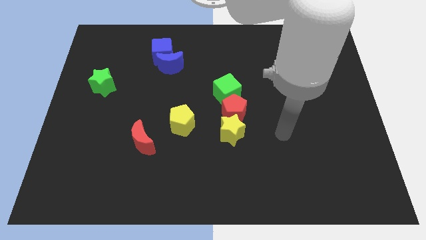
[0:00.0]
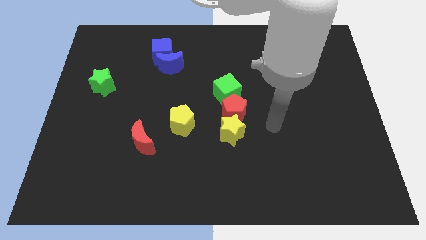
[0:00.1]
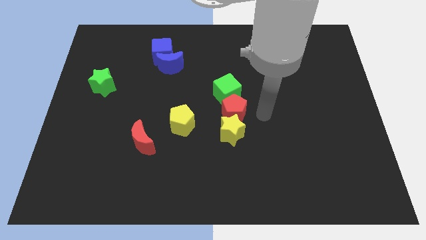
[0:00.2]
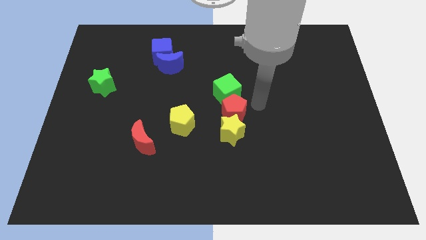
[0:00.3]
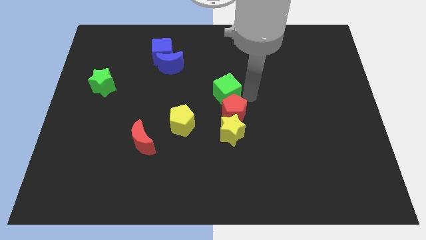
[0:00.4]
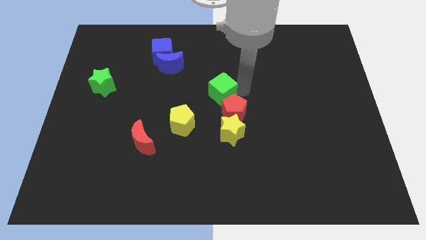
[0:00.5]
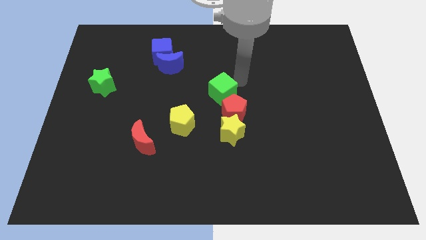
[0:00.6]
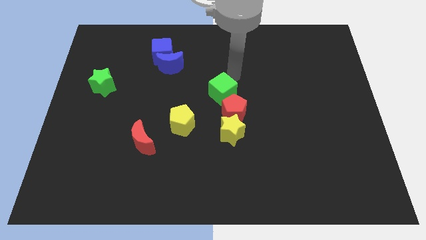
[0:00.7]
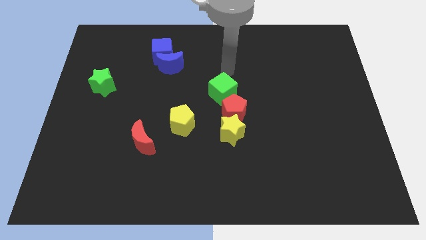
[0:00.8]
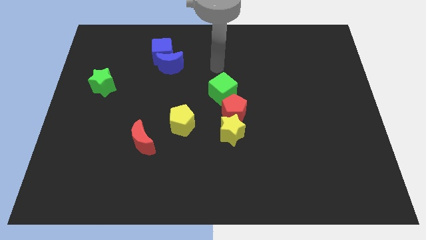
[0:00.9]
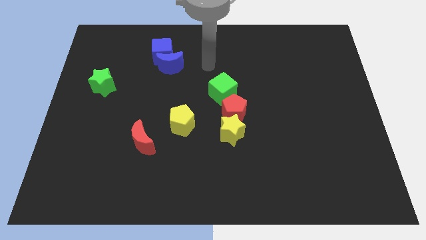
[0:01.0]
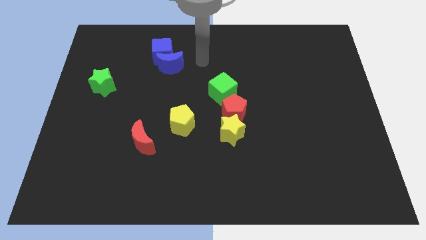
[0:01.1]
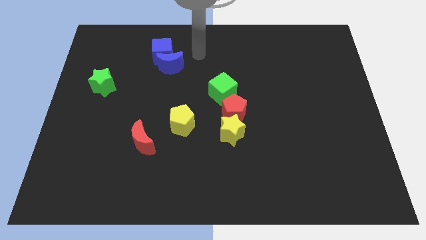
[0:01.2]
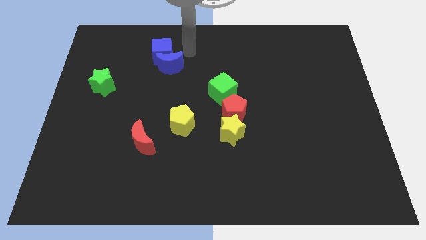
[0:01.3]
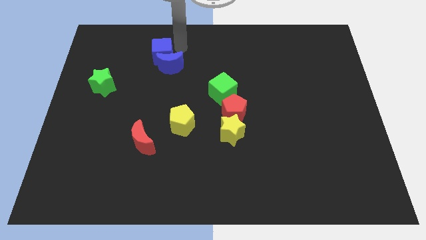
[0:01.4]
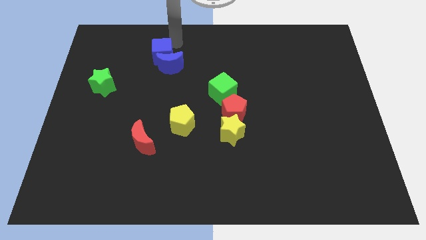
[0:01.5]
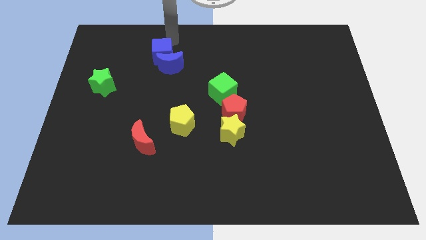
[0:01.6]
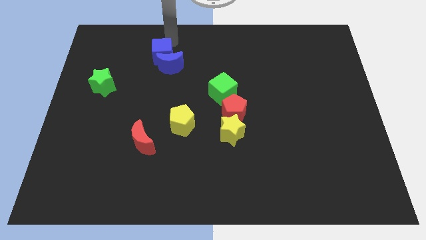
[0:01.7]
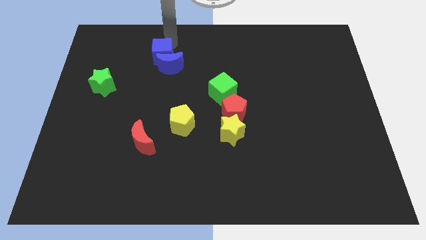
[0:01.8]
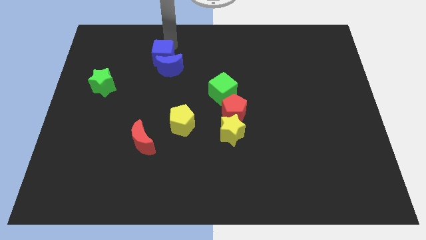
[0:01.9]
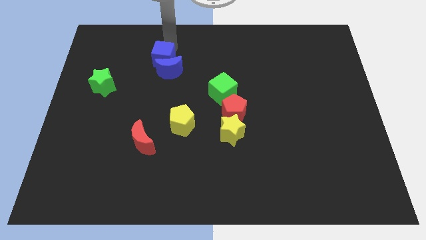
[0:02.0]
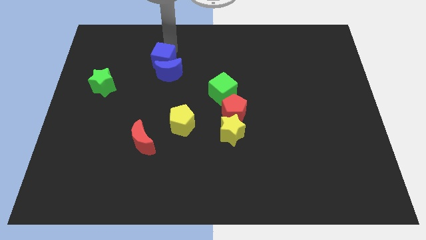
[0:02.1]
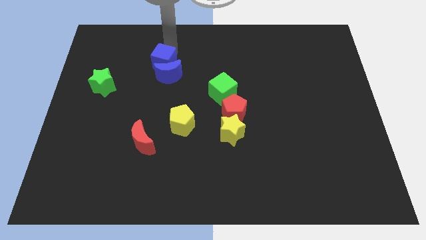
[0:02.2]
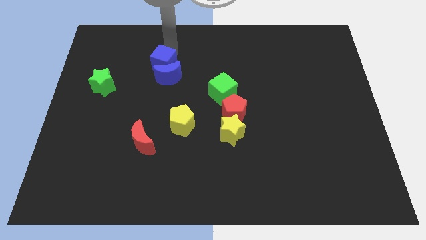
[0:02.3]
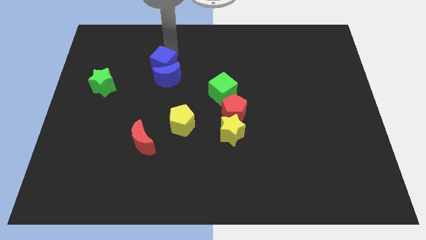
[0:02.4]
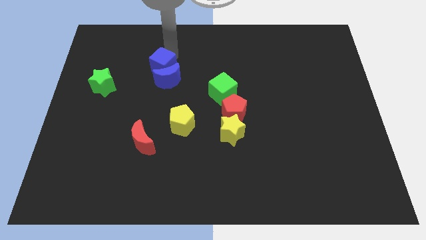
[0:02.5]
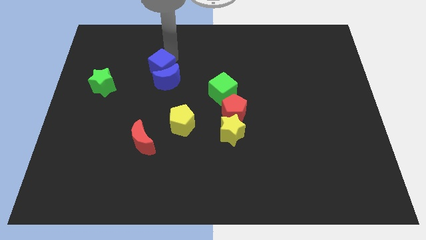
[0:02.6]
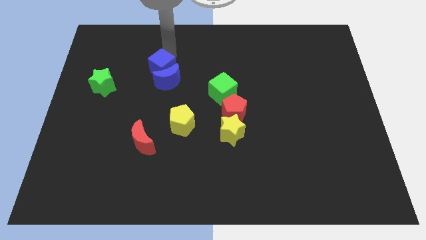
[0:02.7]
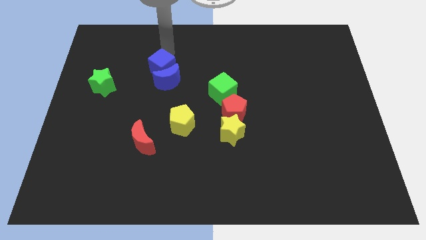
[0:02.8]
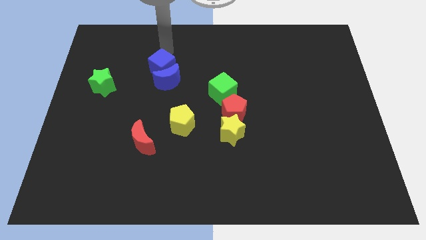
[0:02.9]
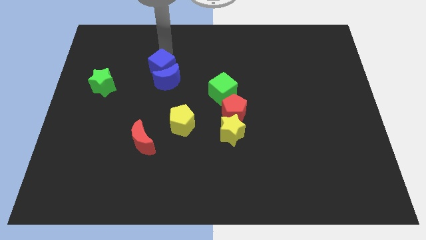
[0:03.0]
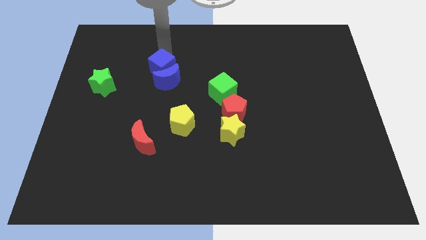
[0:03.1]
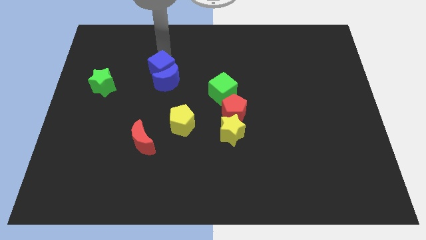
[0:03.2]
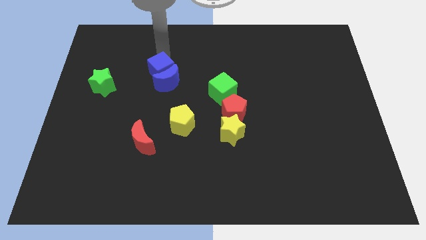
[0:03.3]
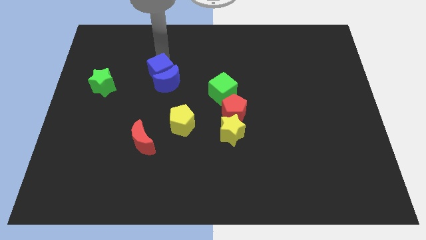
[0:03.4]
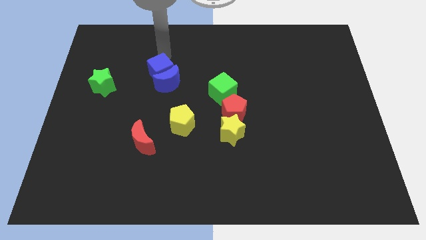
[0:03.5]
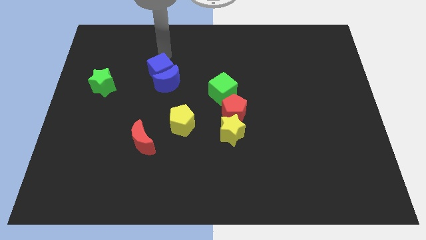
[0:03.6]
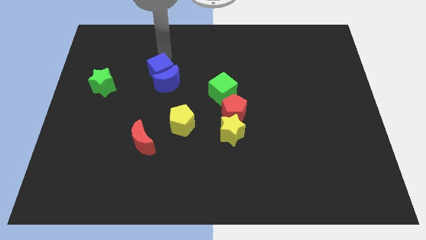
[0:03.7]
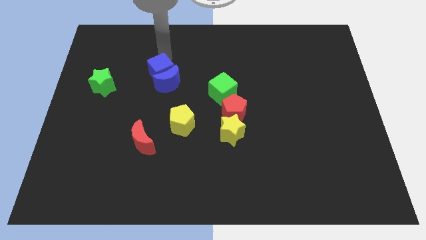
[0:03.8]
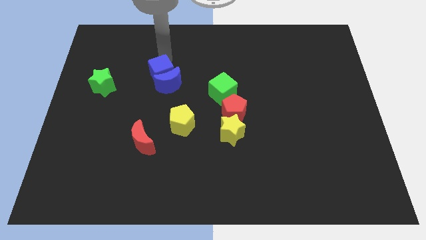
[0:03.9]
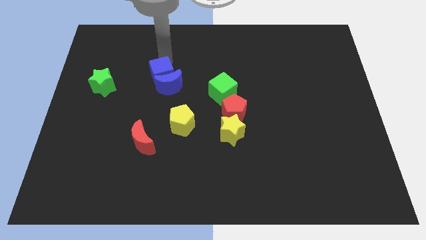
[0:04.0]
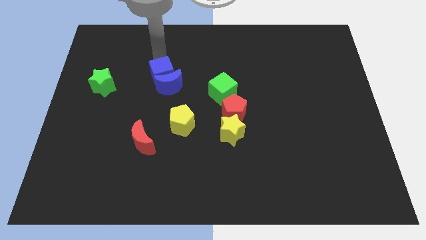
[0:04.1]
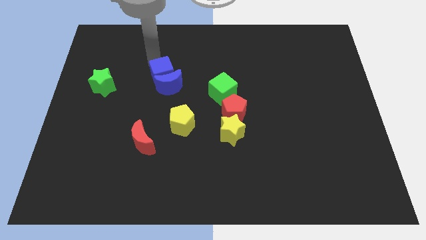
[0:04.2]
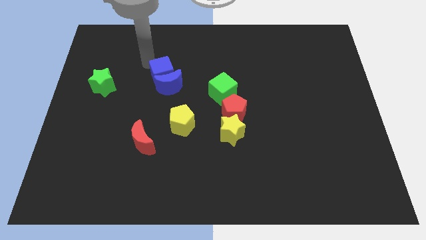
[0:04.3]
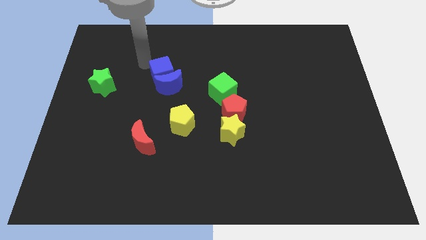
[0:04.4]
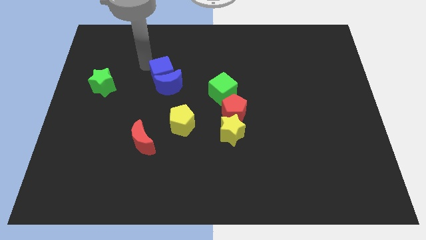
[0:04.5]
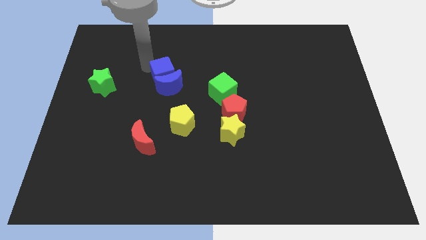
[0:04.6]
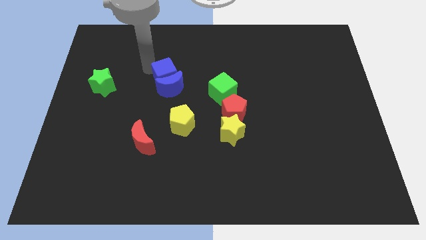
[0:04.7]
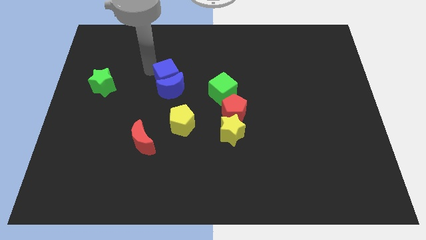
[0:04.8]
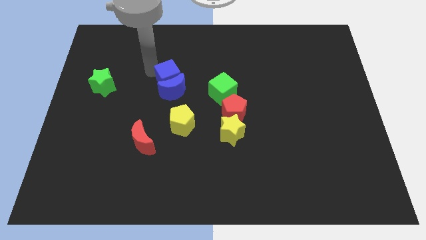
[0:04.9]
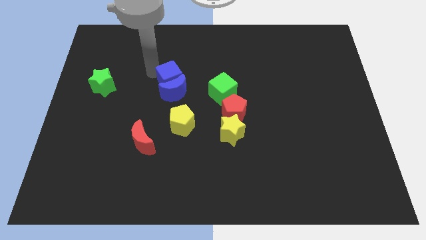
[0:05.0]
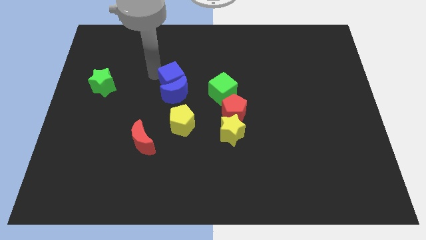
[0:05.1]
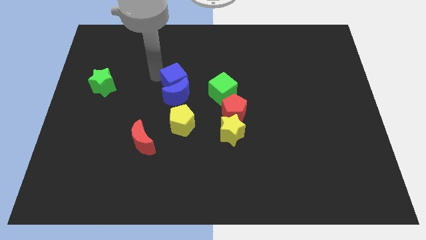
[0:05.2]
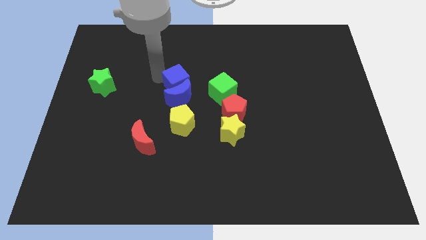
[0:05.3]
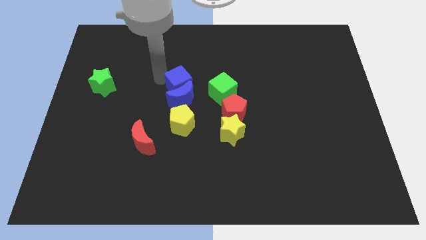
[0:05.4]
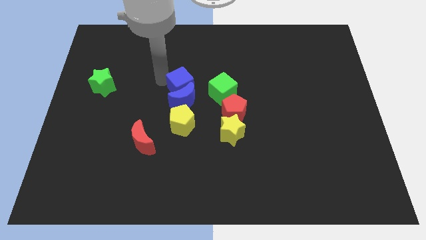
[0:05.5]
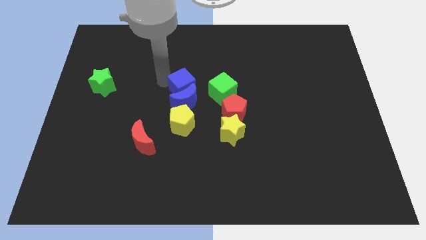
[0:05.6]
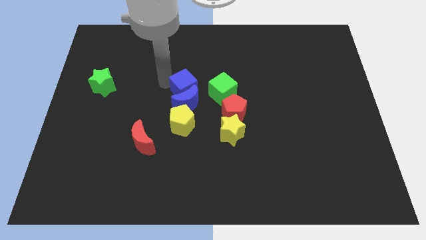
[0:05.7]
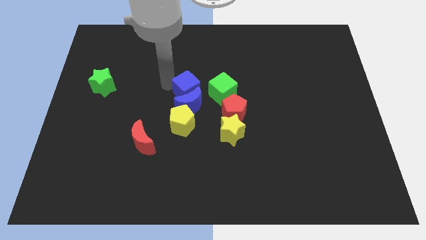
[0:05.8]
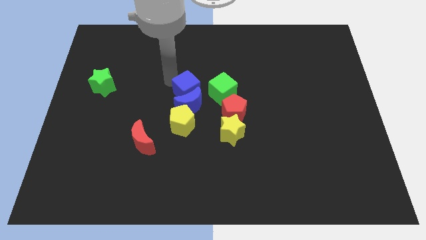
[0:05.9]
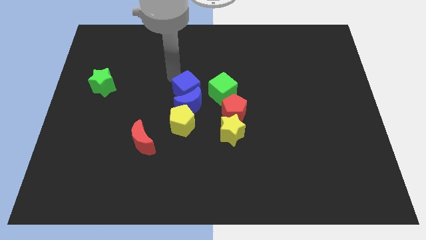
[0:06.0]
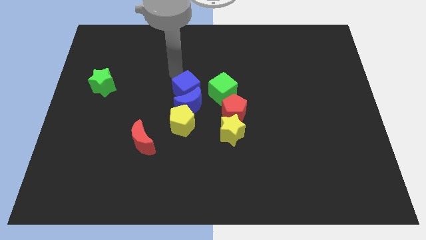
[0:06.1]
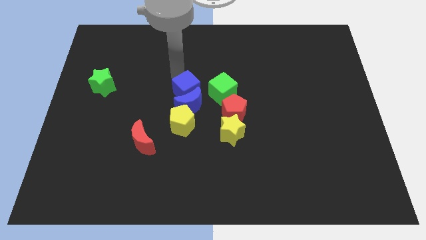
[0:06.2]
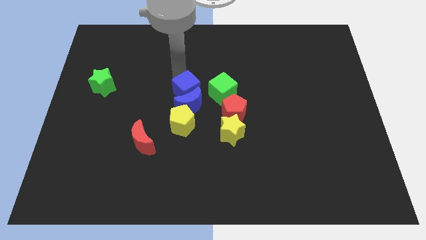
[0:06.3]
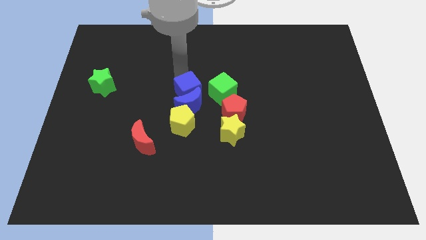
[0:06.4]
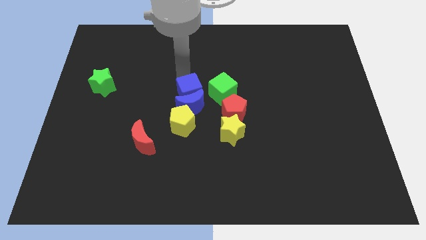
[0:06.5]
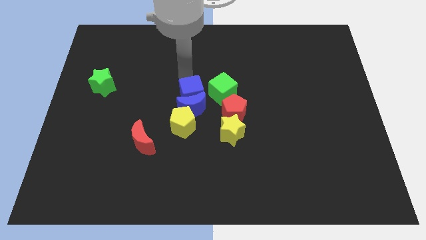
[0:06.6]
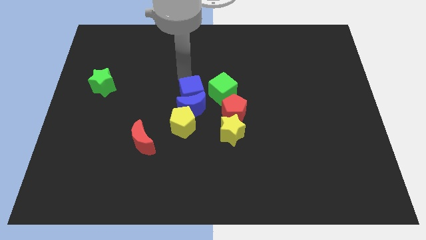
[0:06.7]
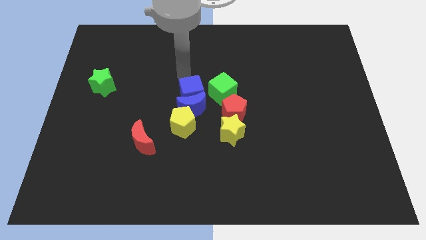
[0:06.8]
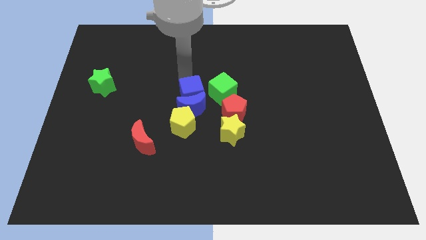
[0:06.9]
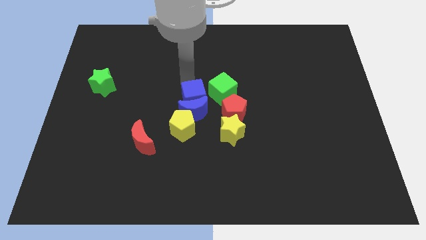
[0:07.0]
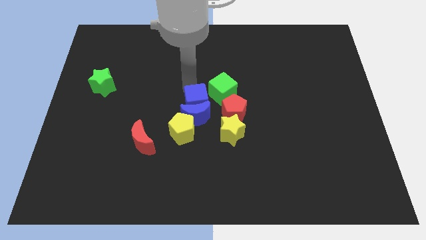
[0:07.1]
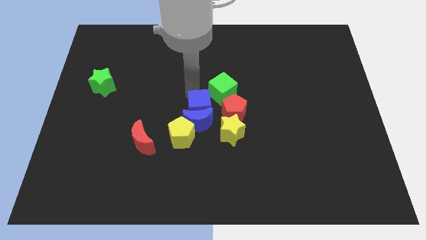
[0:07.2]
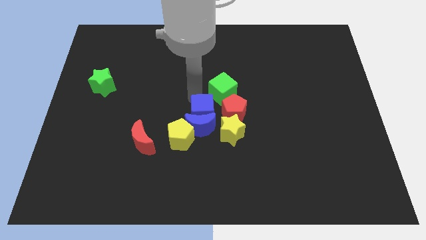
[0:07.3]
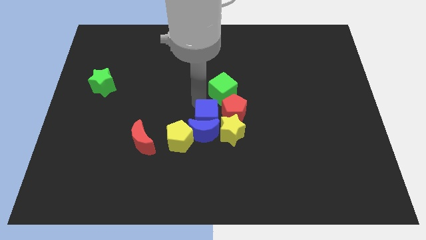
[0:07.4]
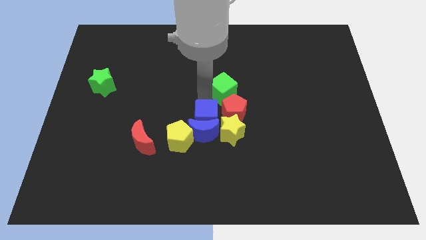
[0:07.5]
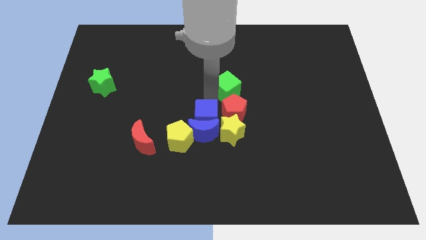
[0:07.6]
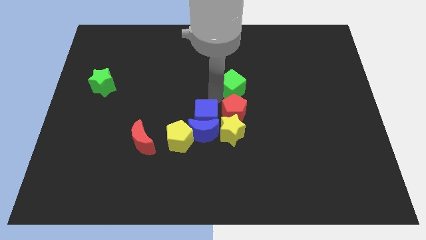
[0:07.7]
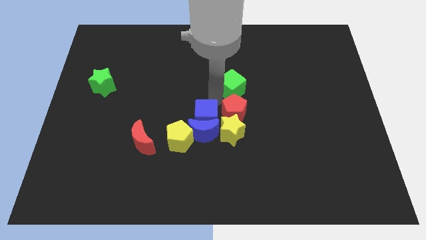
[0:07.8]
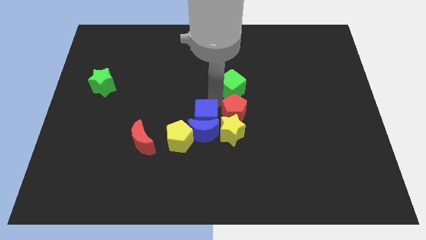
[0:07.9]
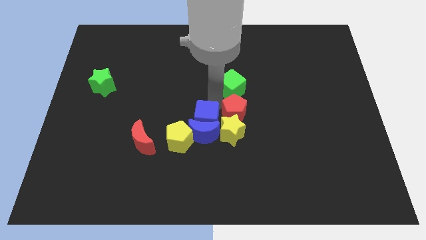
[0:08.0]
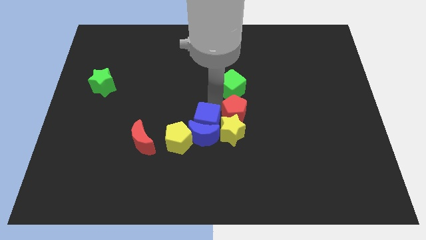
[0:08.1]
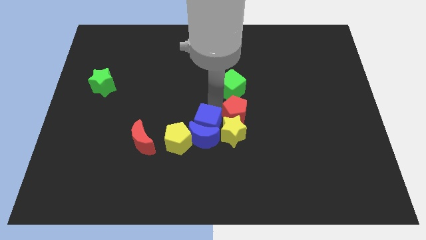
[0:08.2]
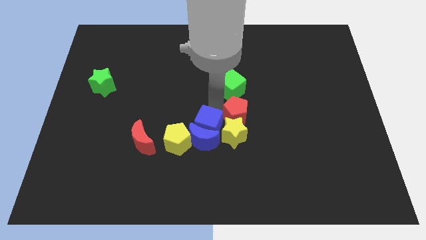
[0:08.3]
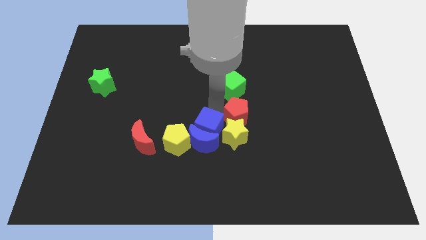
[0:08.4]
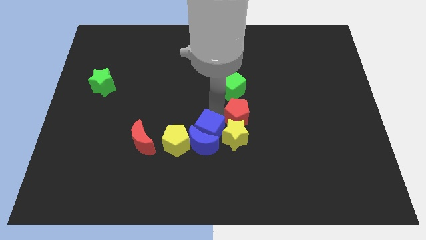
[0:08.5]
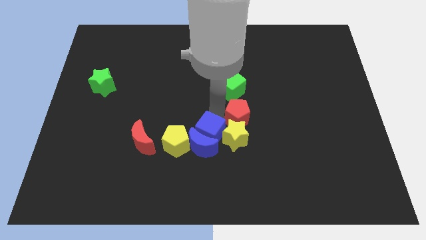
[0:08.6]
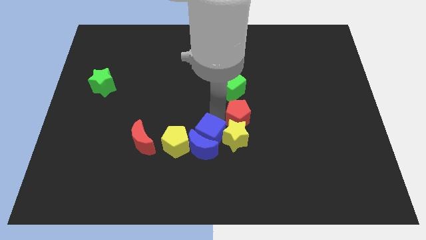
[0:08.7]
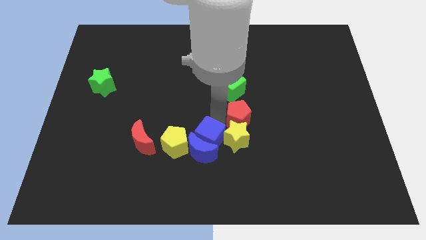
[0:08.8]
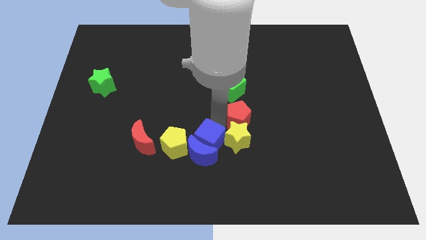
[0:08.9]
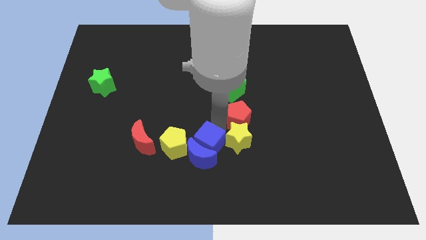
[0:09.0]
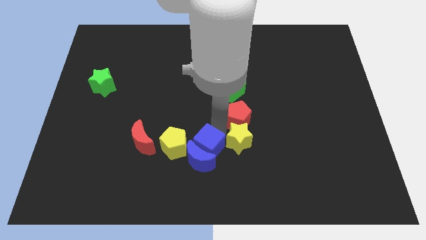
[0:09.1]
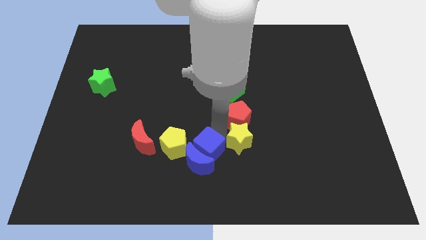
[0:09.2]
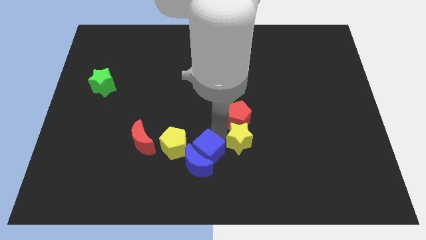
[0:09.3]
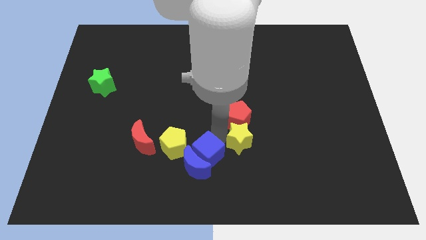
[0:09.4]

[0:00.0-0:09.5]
move the blue cube to the bottom side
